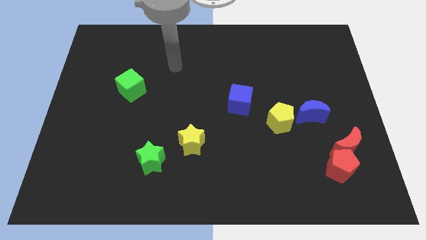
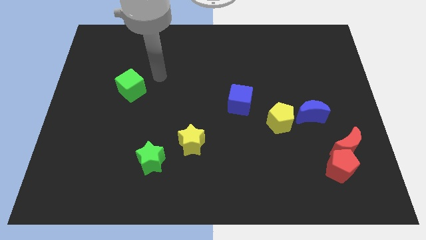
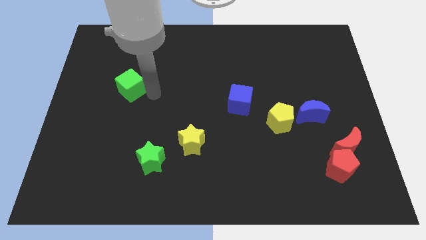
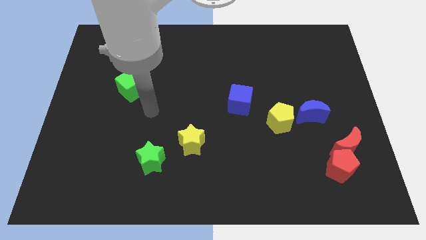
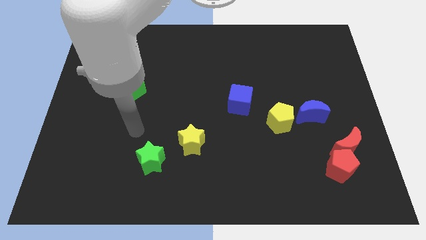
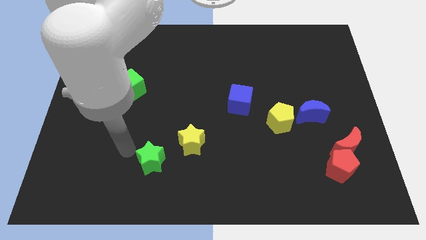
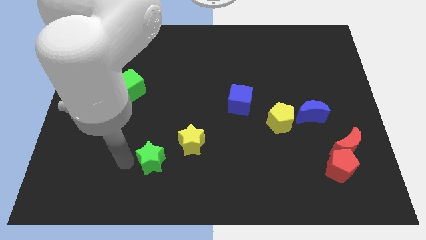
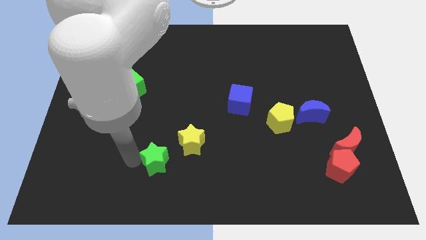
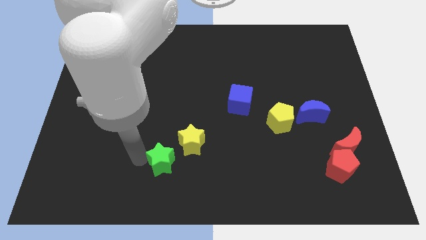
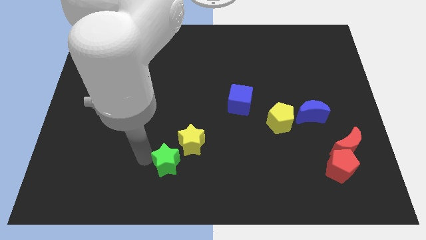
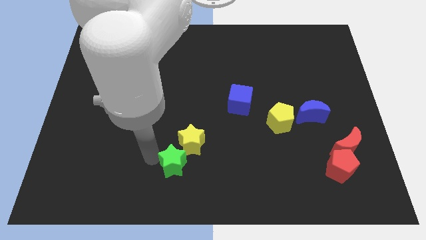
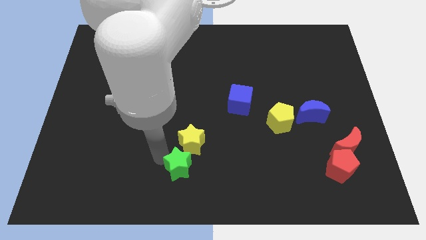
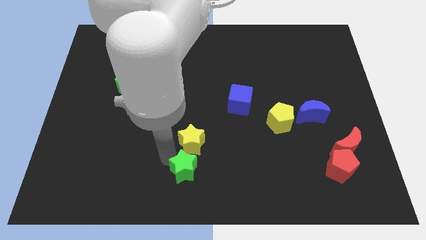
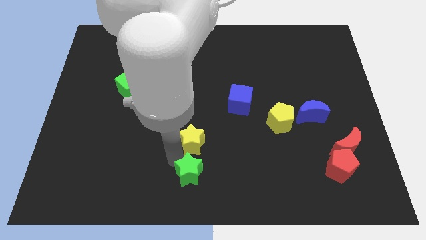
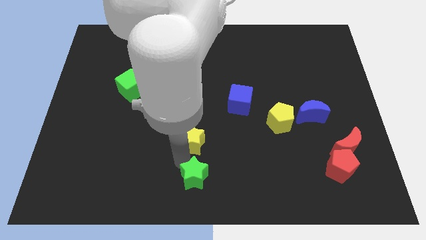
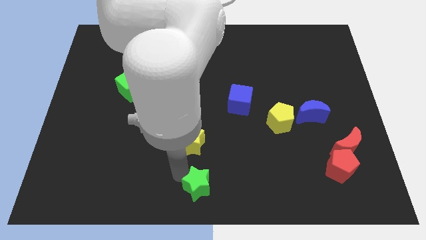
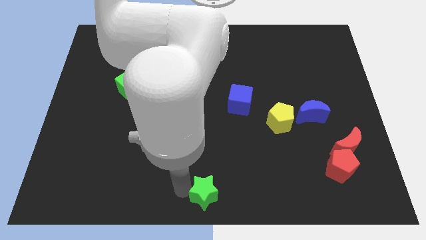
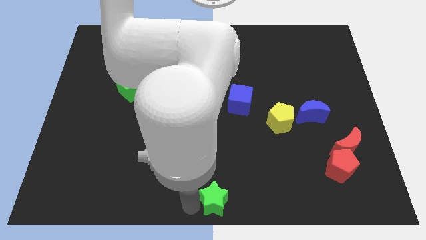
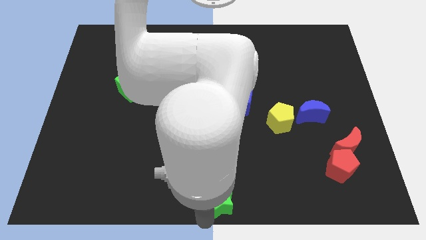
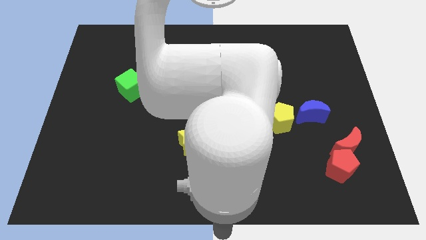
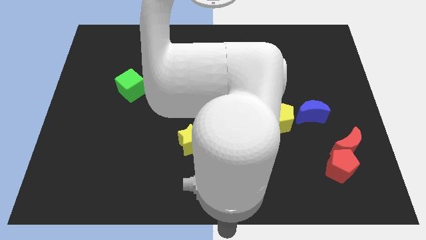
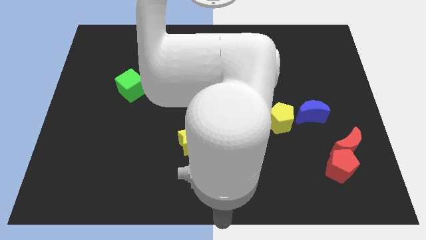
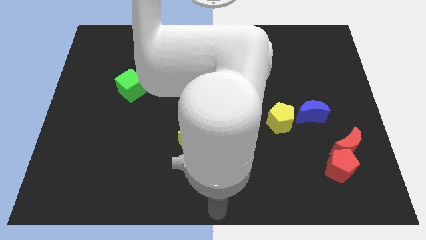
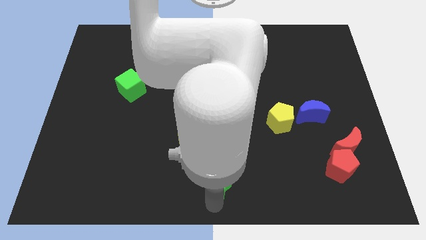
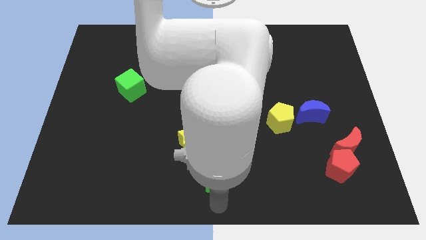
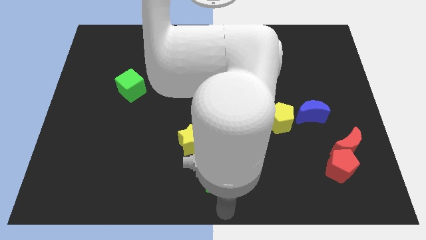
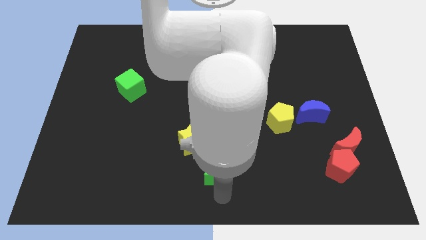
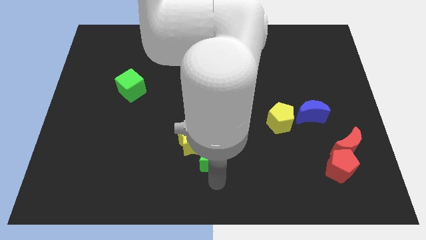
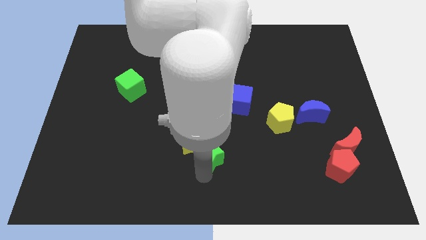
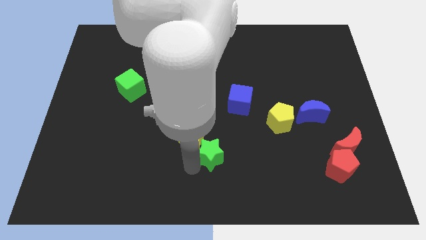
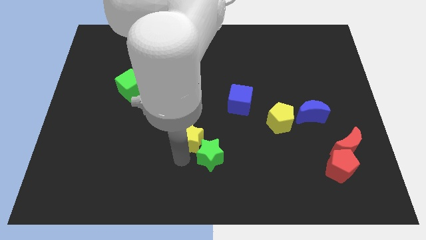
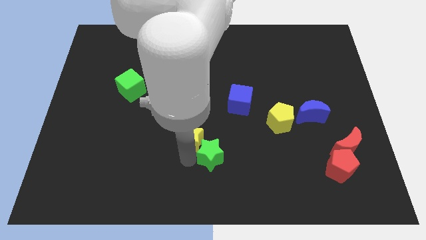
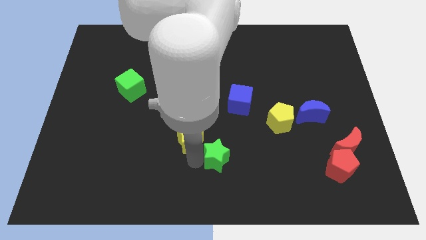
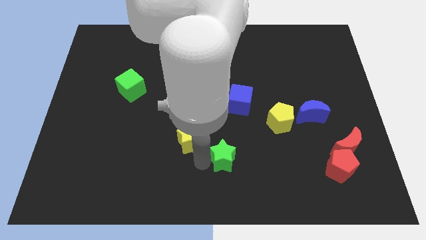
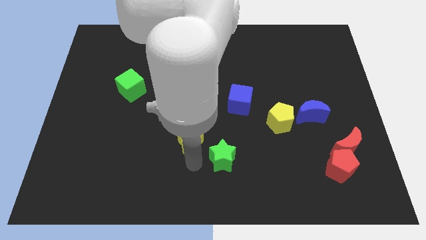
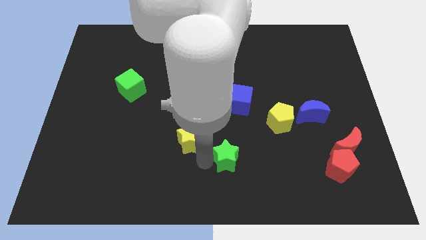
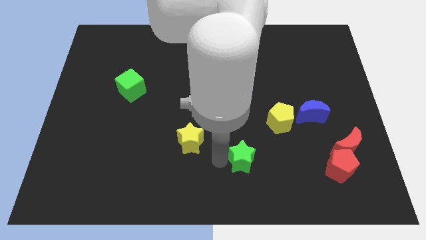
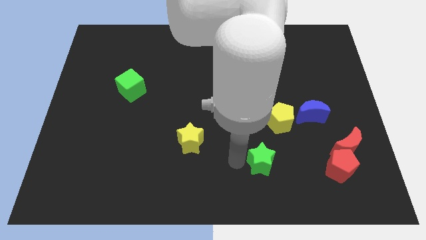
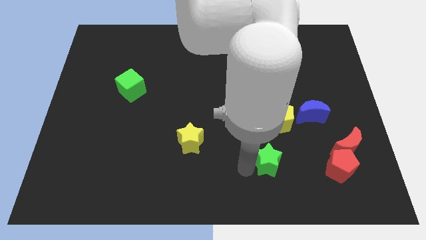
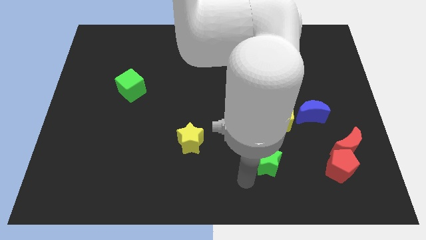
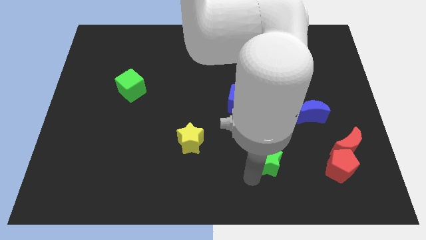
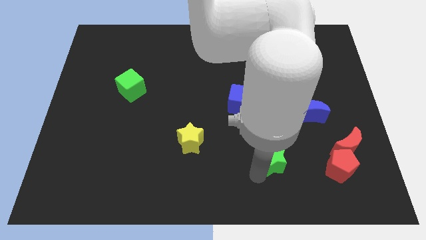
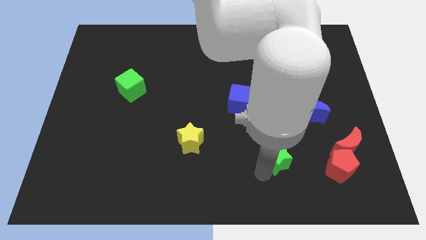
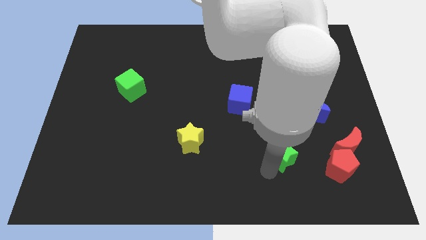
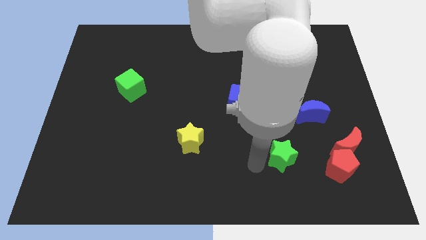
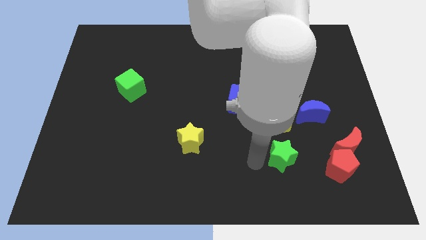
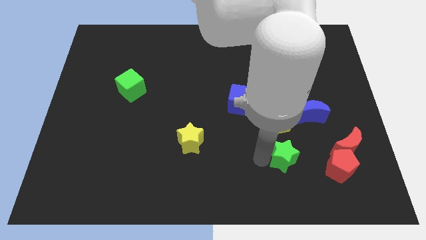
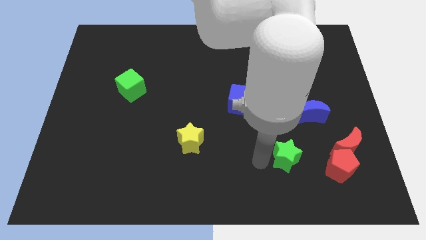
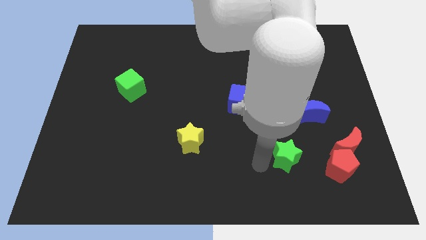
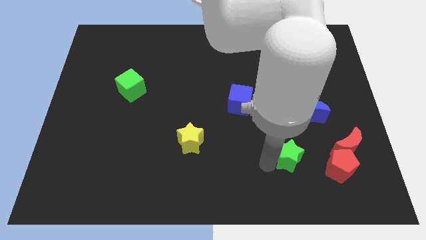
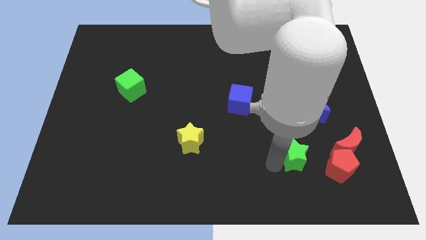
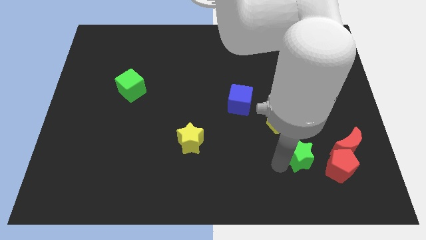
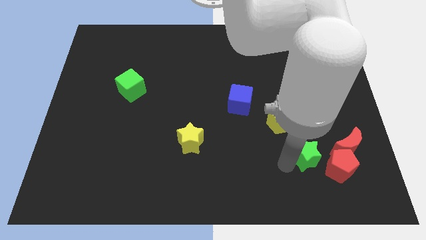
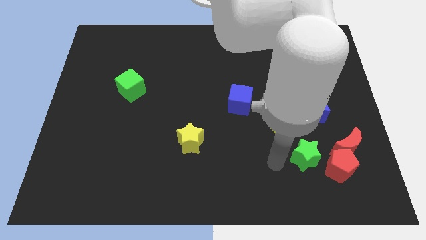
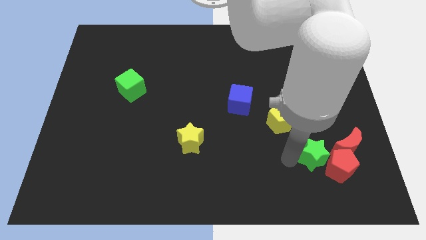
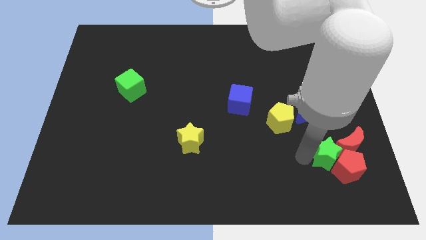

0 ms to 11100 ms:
put the green star close to the red moon
